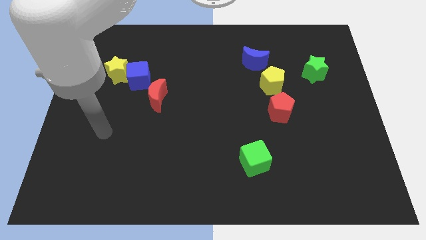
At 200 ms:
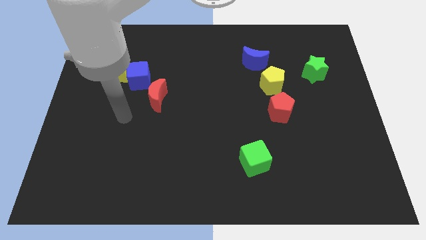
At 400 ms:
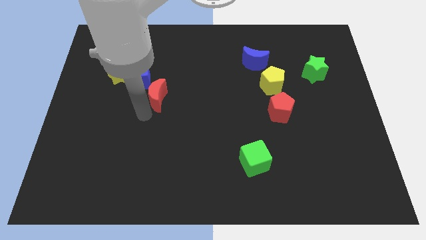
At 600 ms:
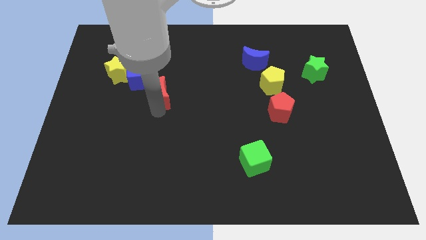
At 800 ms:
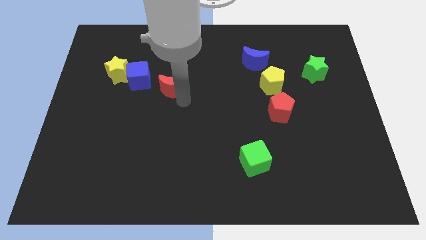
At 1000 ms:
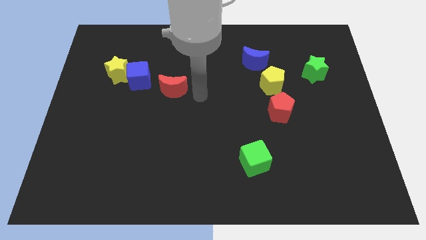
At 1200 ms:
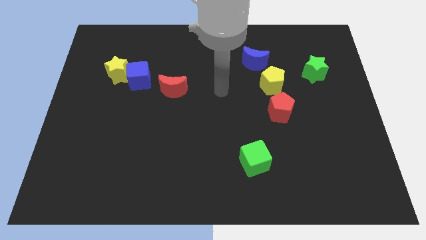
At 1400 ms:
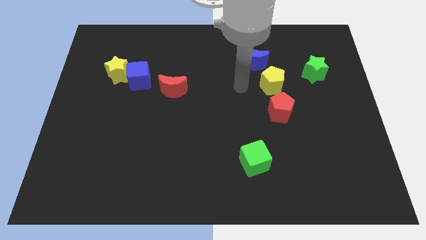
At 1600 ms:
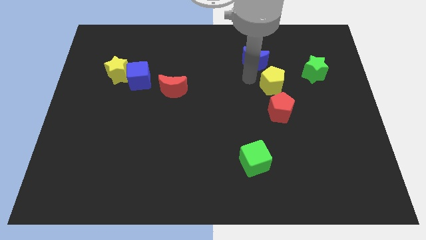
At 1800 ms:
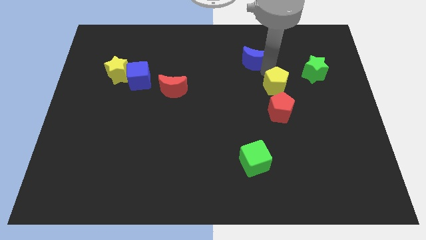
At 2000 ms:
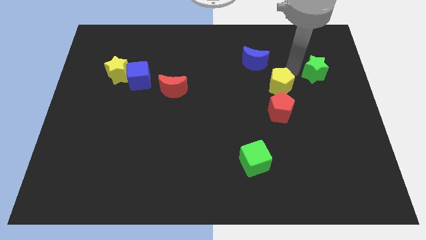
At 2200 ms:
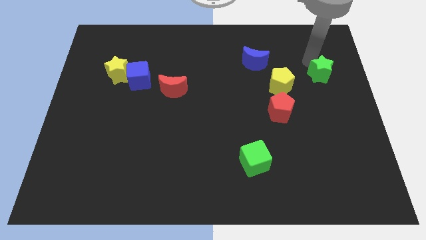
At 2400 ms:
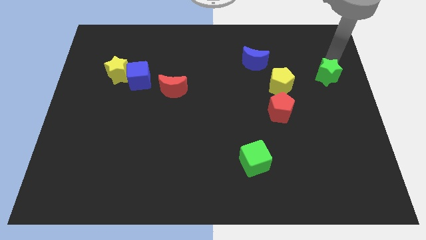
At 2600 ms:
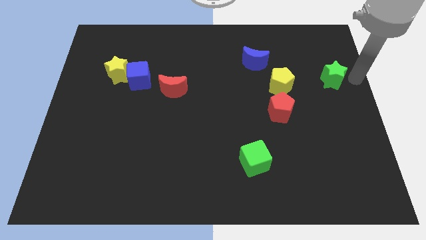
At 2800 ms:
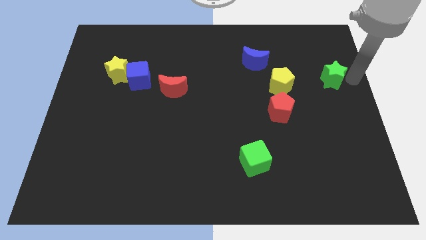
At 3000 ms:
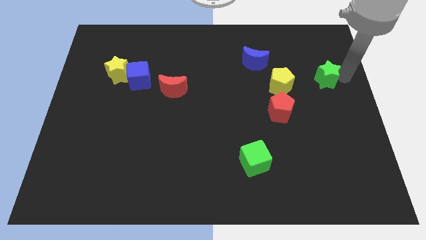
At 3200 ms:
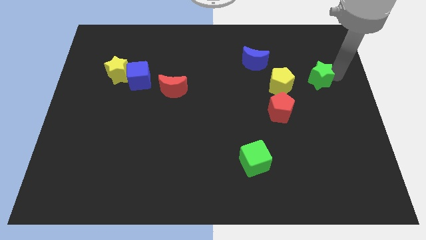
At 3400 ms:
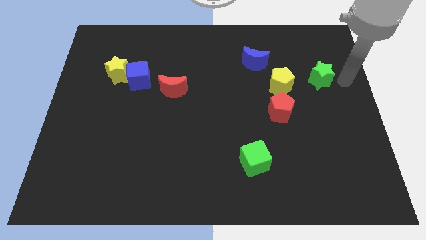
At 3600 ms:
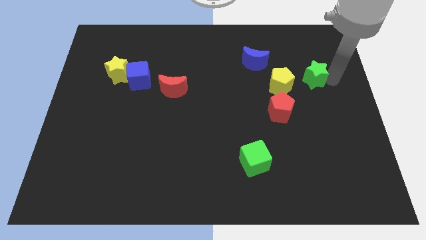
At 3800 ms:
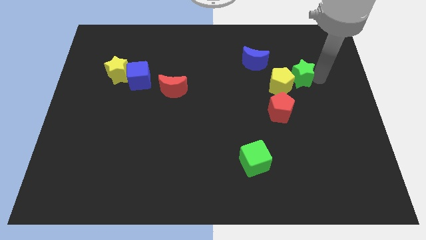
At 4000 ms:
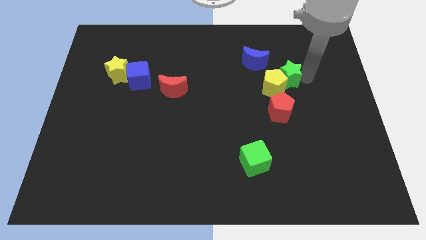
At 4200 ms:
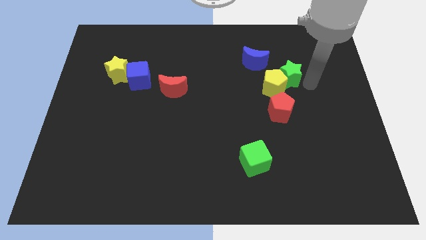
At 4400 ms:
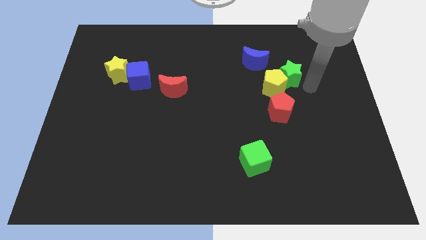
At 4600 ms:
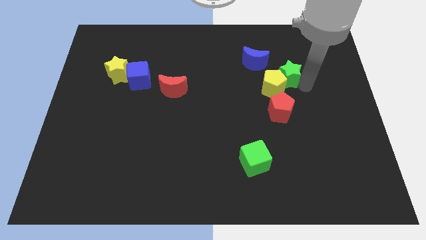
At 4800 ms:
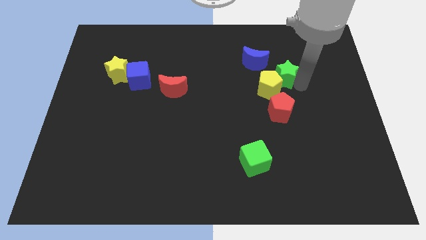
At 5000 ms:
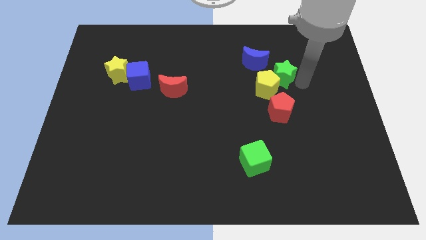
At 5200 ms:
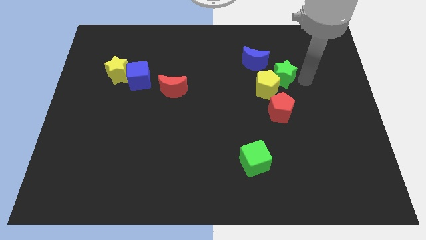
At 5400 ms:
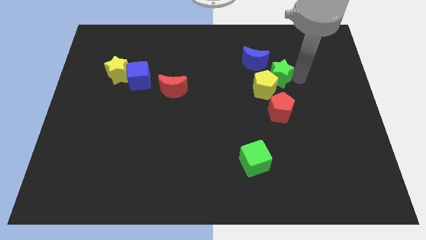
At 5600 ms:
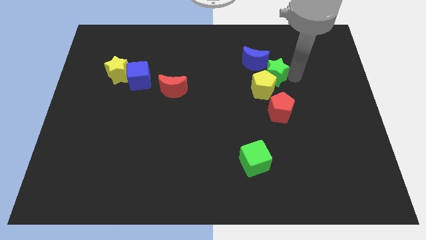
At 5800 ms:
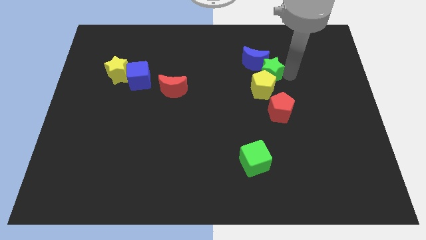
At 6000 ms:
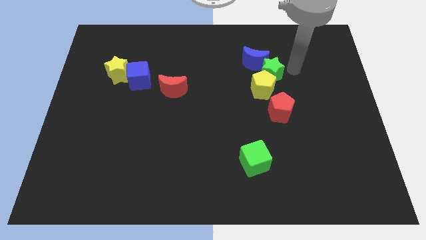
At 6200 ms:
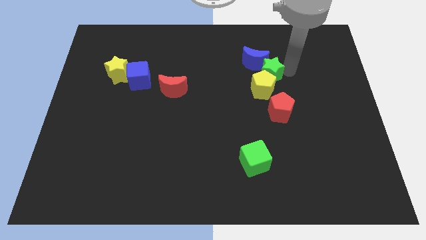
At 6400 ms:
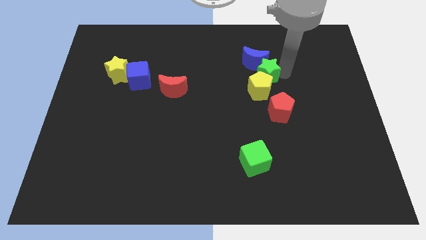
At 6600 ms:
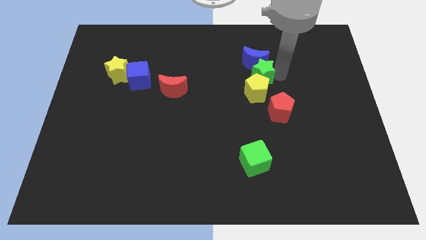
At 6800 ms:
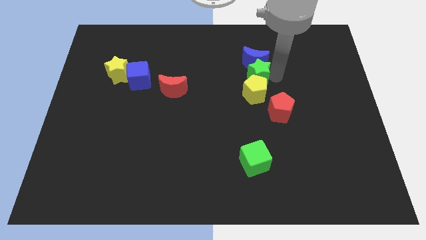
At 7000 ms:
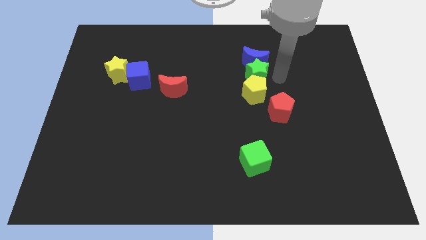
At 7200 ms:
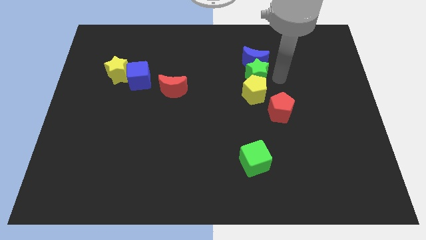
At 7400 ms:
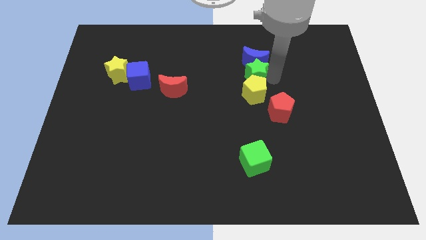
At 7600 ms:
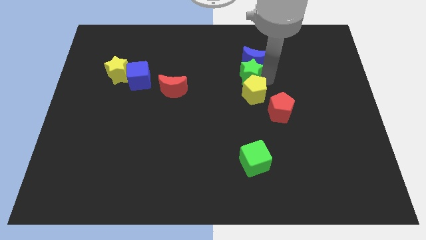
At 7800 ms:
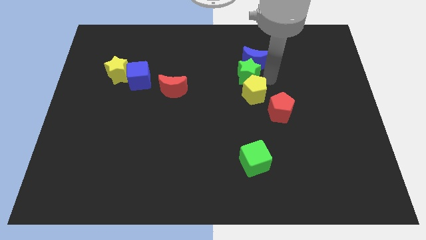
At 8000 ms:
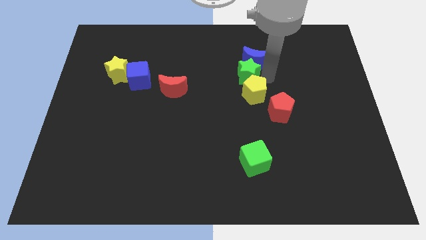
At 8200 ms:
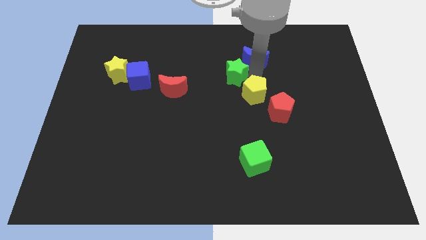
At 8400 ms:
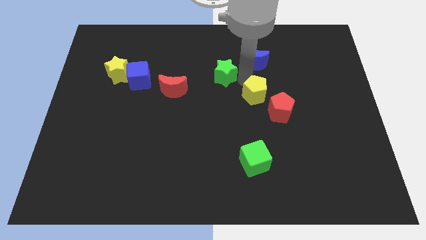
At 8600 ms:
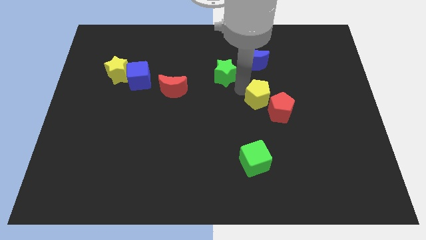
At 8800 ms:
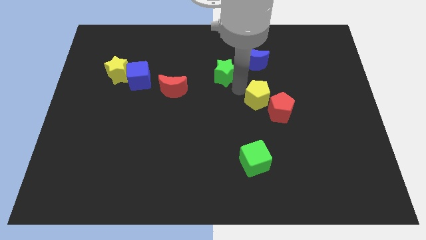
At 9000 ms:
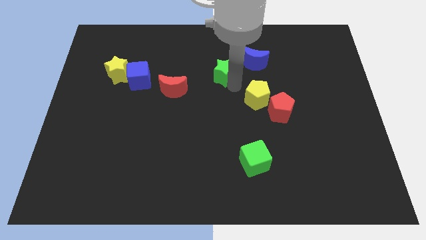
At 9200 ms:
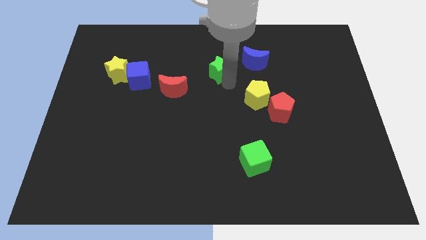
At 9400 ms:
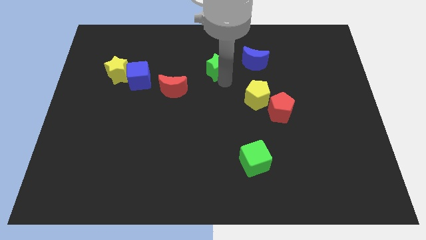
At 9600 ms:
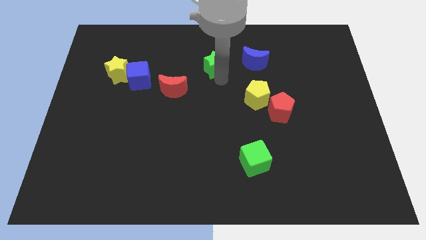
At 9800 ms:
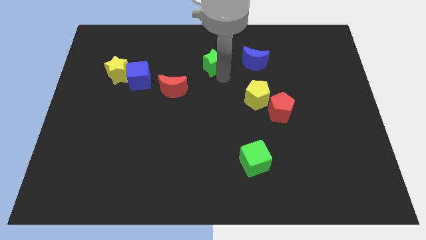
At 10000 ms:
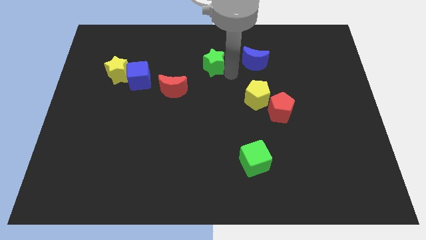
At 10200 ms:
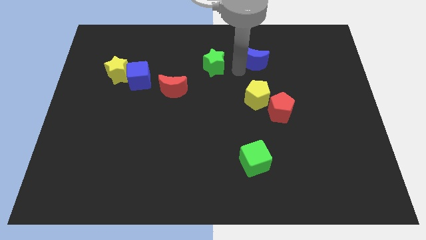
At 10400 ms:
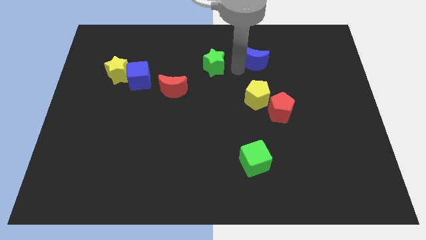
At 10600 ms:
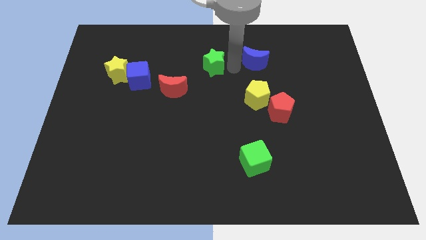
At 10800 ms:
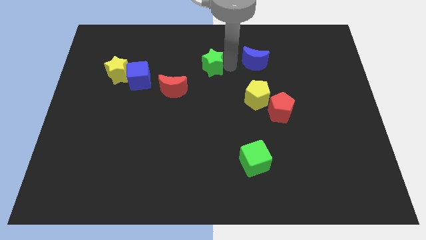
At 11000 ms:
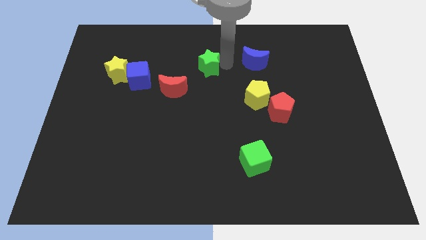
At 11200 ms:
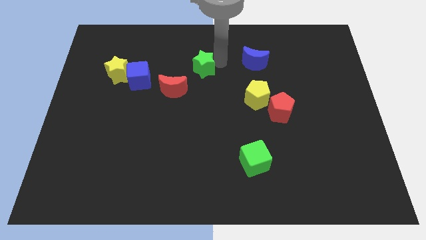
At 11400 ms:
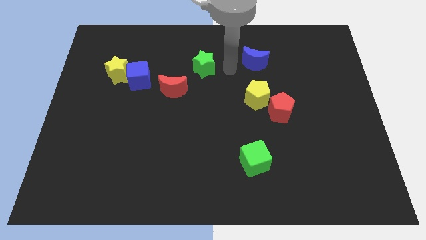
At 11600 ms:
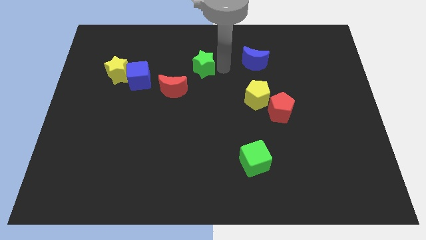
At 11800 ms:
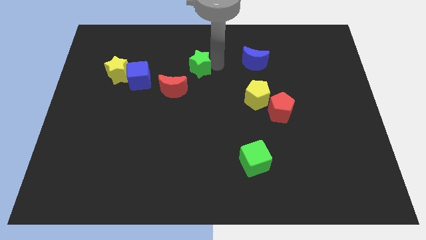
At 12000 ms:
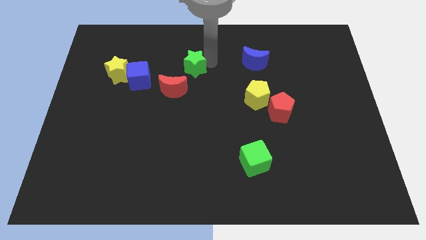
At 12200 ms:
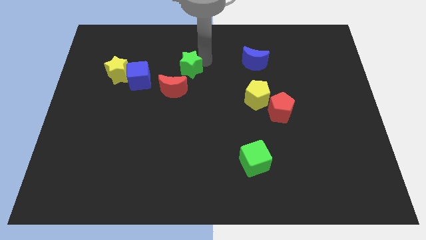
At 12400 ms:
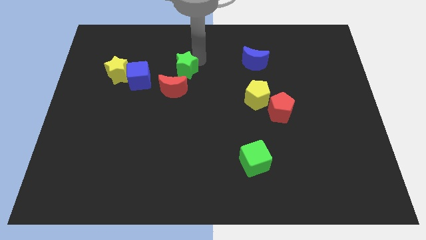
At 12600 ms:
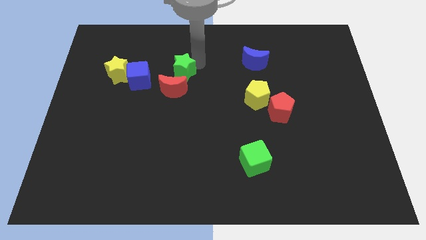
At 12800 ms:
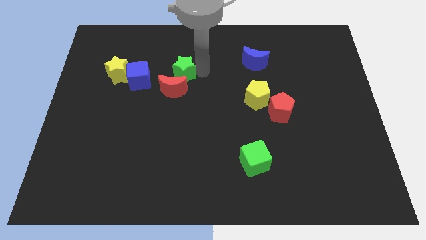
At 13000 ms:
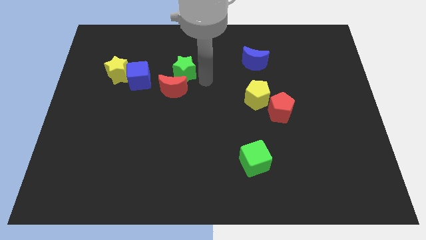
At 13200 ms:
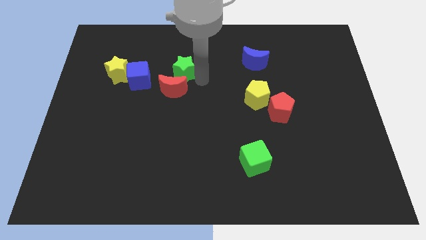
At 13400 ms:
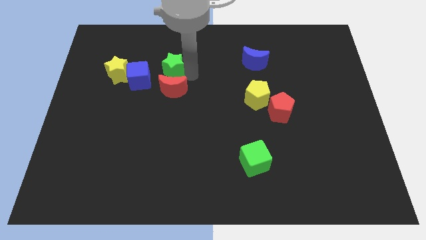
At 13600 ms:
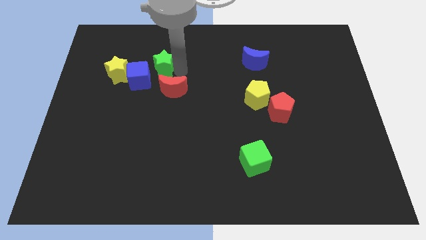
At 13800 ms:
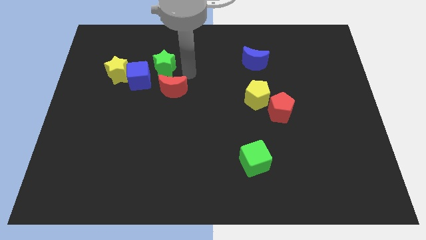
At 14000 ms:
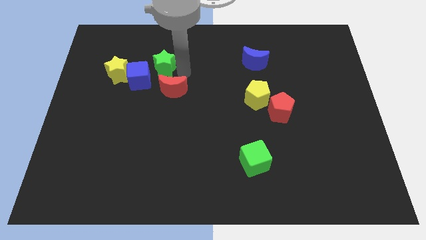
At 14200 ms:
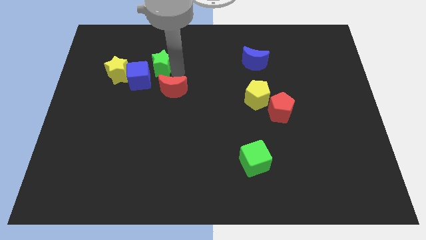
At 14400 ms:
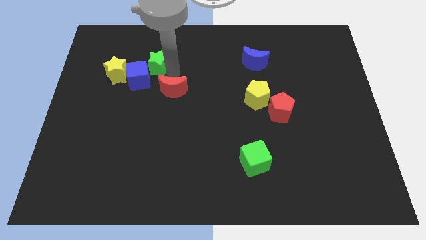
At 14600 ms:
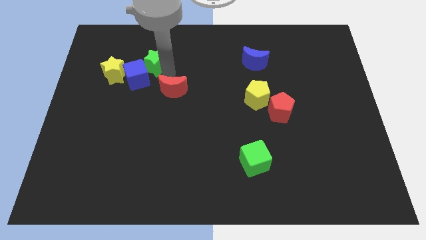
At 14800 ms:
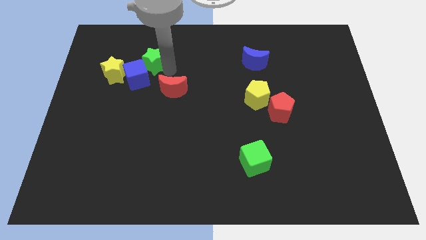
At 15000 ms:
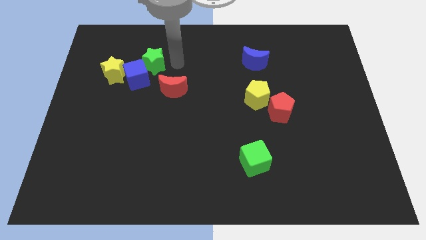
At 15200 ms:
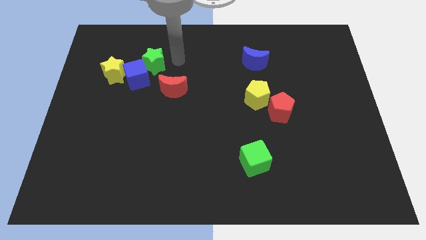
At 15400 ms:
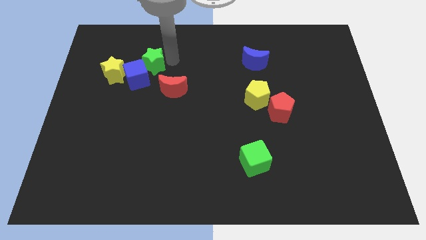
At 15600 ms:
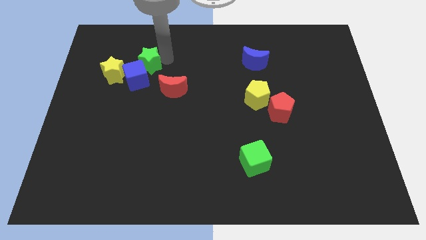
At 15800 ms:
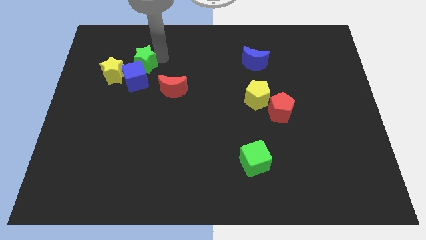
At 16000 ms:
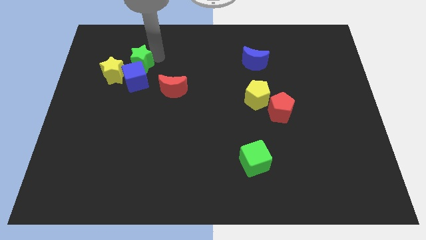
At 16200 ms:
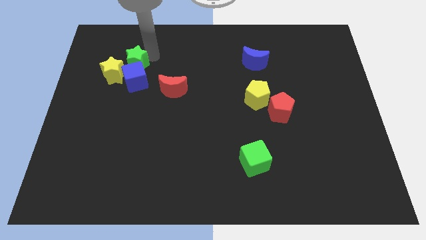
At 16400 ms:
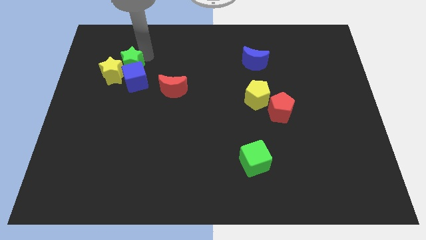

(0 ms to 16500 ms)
push the green star next to the yellow star

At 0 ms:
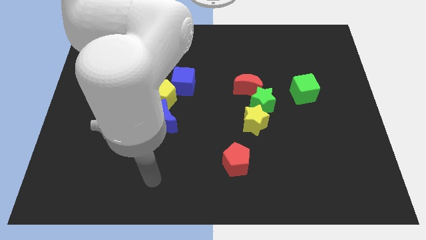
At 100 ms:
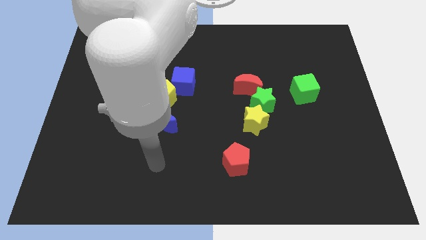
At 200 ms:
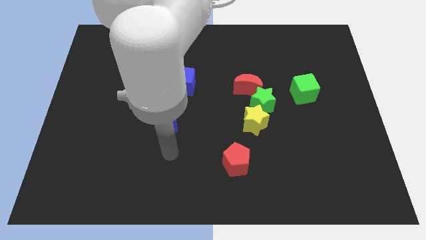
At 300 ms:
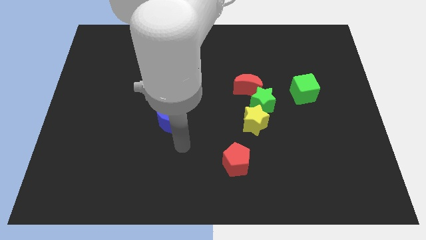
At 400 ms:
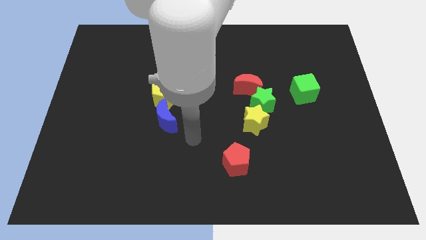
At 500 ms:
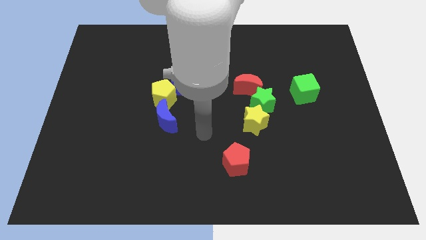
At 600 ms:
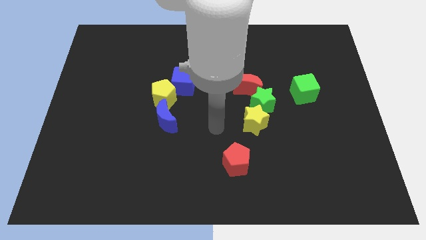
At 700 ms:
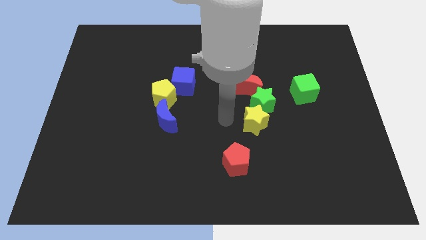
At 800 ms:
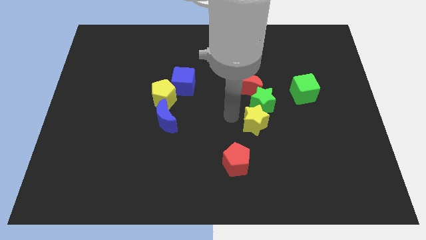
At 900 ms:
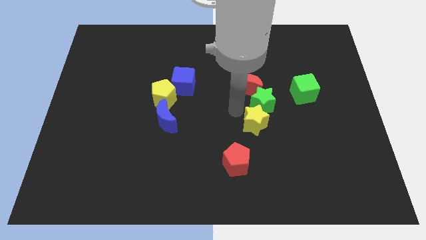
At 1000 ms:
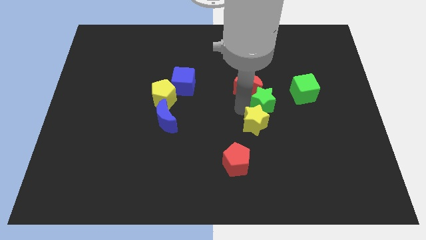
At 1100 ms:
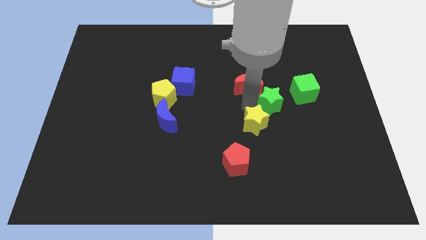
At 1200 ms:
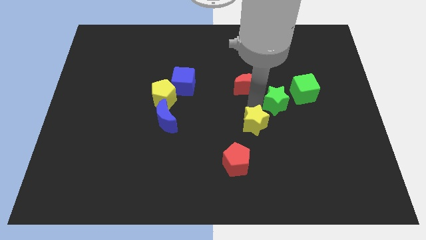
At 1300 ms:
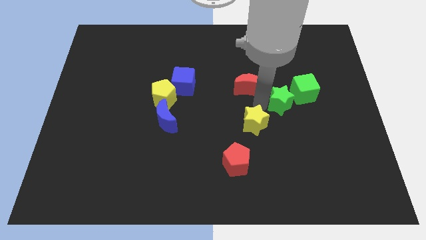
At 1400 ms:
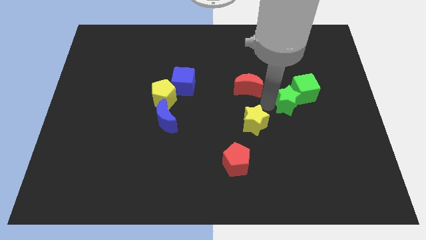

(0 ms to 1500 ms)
slide the green star next to the green cube
